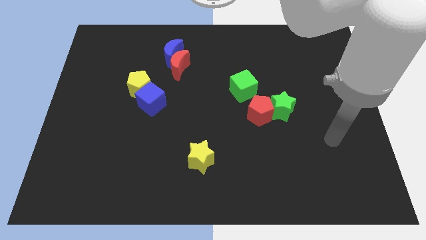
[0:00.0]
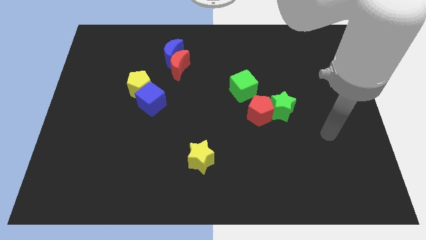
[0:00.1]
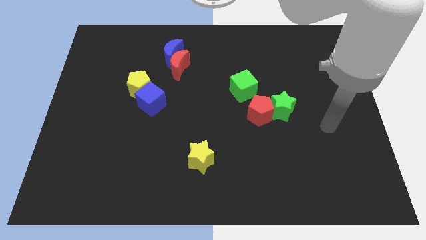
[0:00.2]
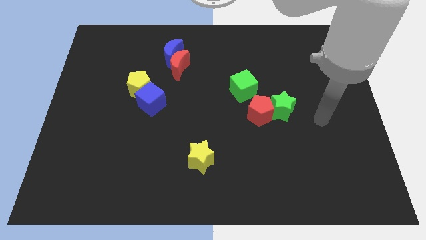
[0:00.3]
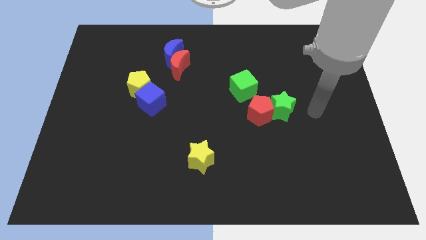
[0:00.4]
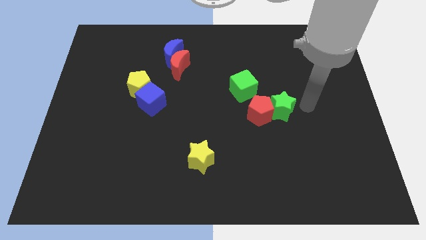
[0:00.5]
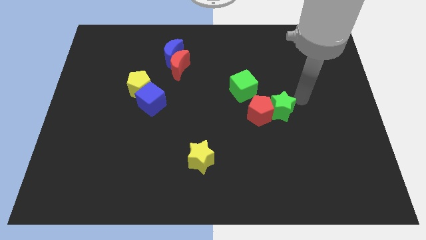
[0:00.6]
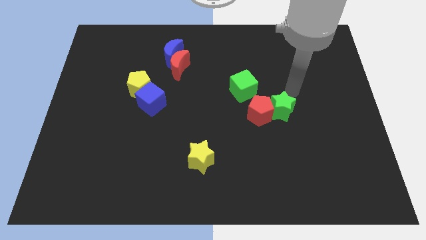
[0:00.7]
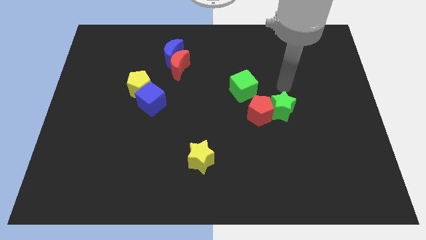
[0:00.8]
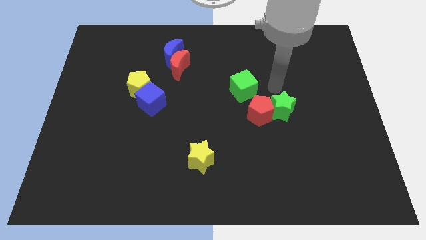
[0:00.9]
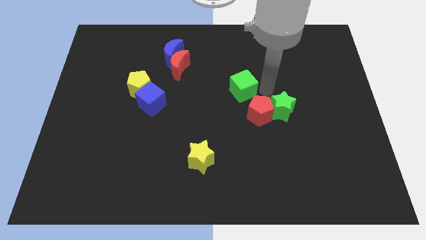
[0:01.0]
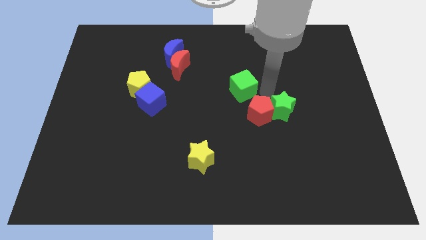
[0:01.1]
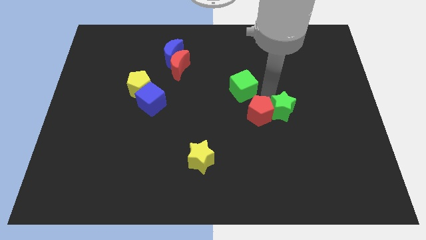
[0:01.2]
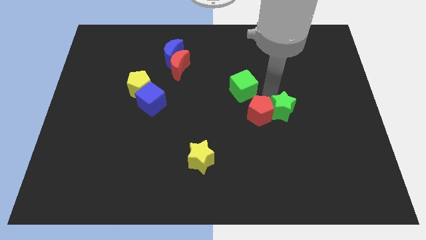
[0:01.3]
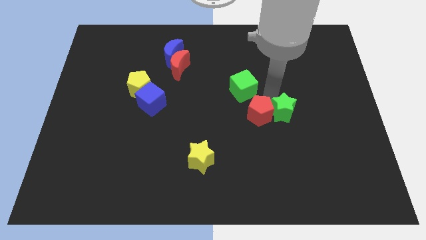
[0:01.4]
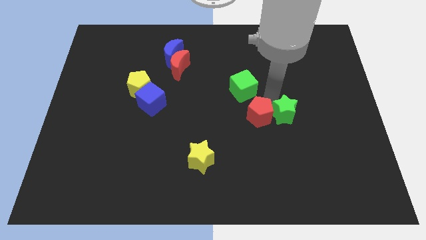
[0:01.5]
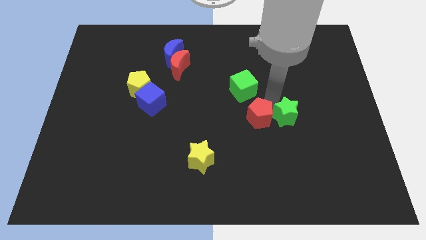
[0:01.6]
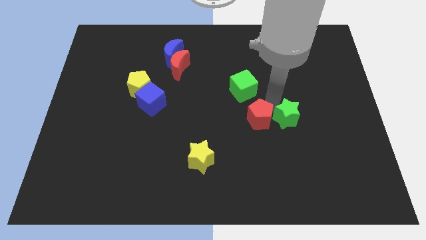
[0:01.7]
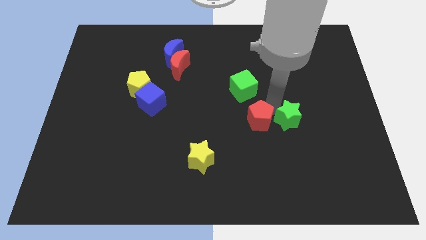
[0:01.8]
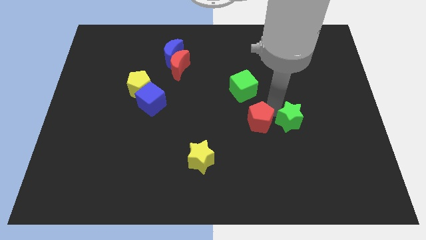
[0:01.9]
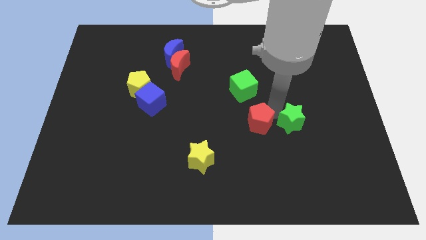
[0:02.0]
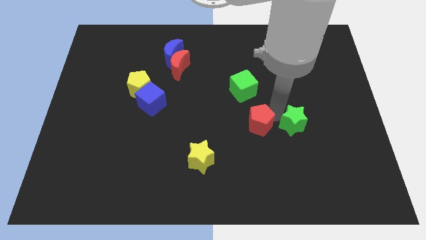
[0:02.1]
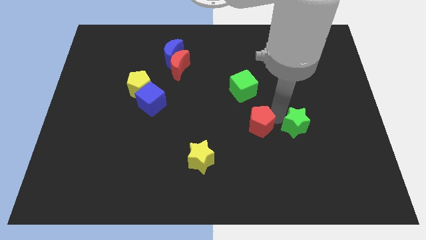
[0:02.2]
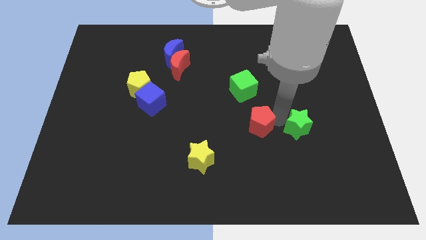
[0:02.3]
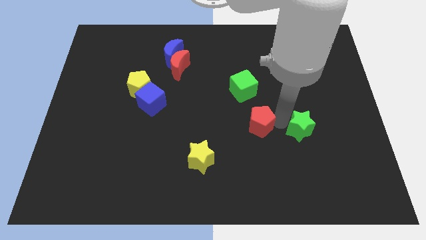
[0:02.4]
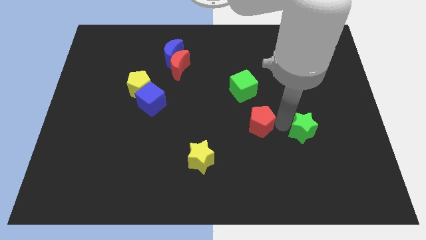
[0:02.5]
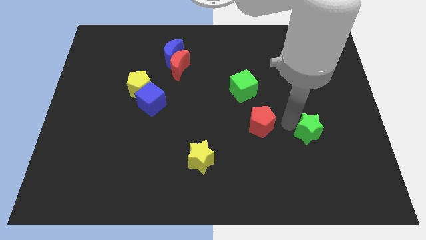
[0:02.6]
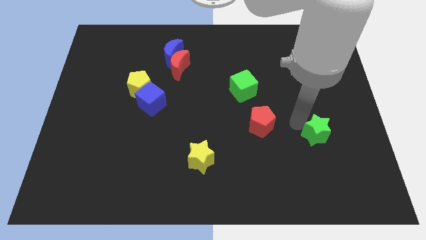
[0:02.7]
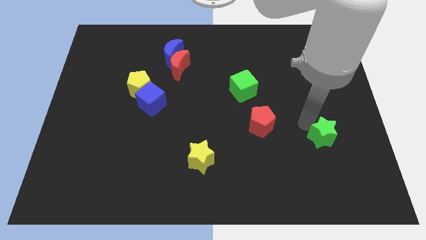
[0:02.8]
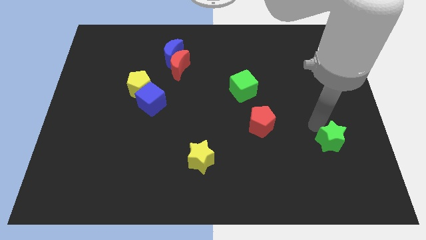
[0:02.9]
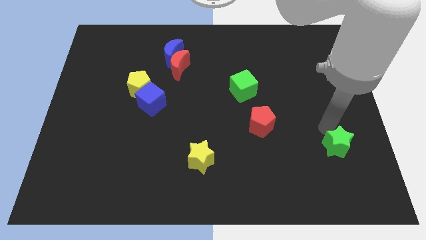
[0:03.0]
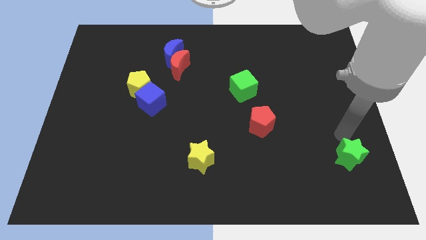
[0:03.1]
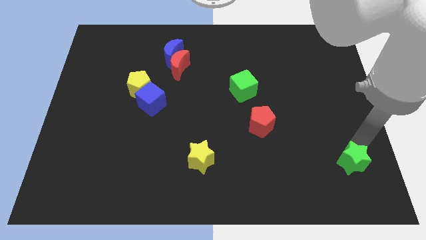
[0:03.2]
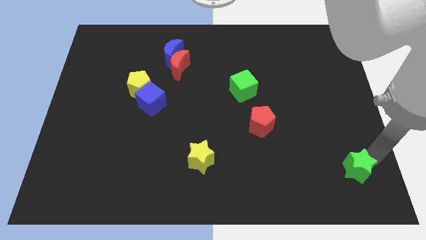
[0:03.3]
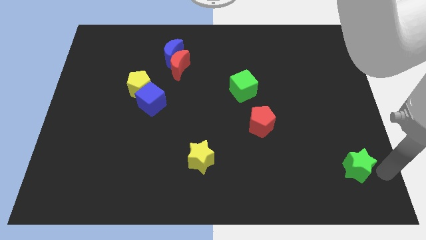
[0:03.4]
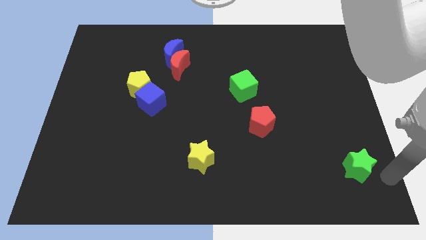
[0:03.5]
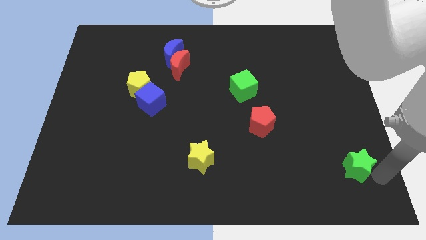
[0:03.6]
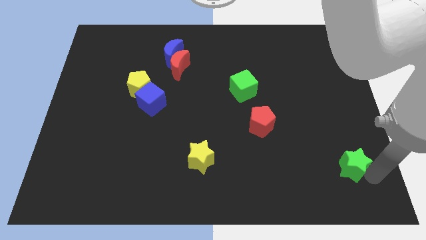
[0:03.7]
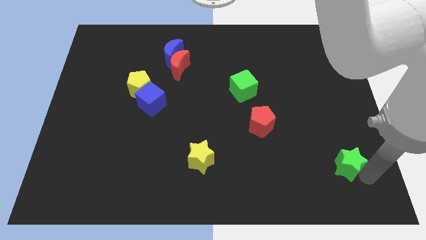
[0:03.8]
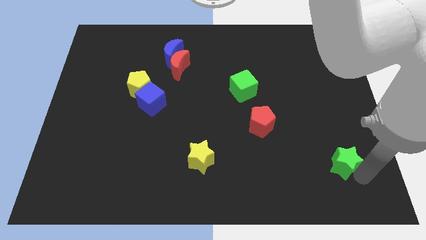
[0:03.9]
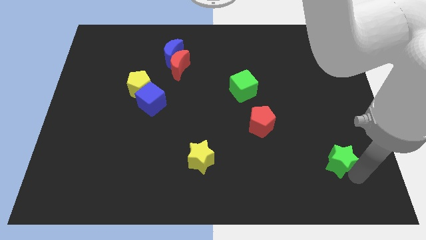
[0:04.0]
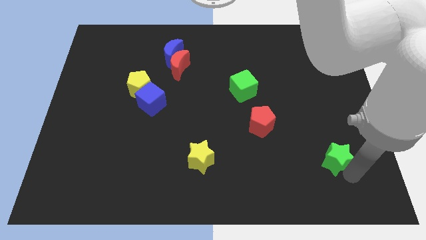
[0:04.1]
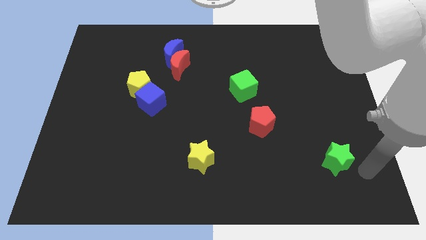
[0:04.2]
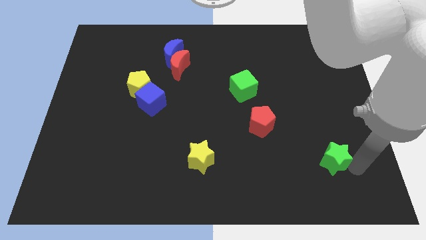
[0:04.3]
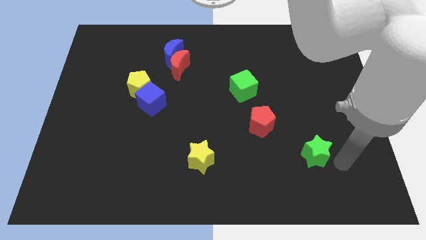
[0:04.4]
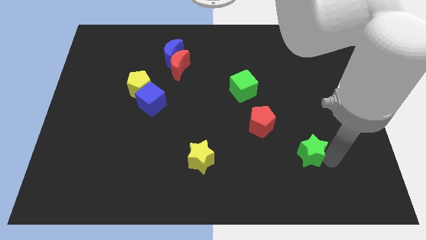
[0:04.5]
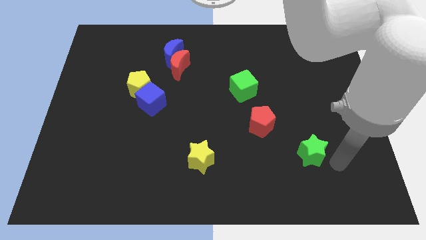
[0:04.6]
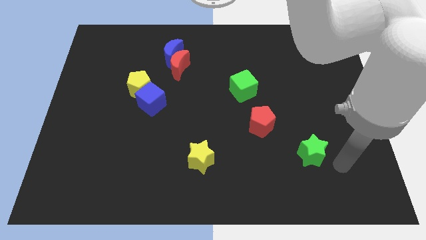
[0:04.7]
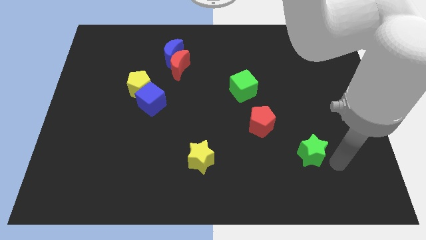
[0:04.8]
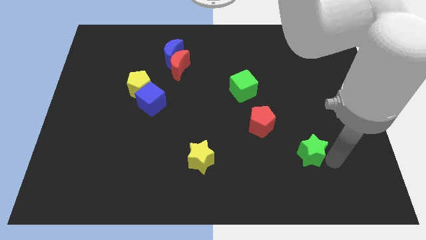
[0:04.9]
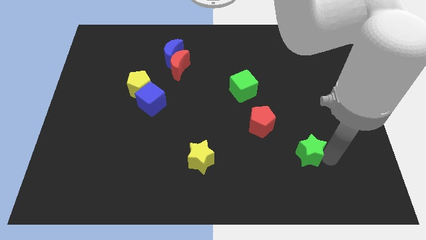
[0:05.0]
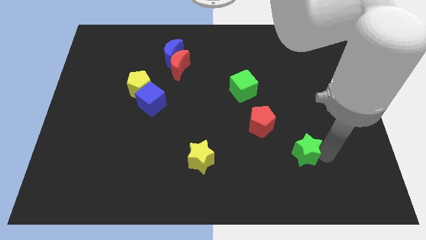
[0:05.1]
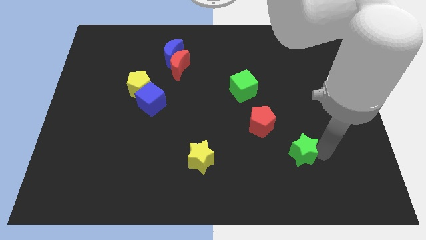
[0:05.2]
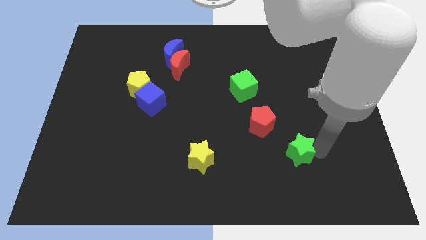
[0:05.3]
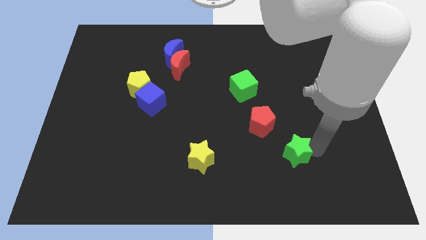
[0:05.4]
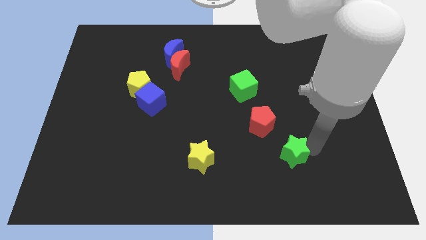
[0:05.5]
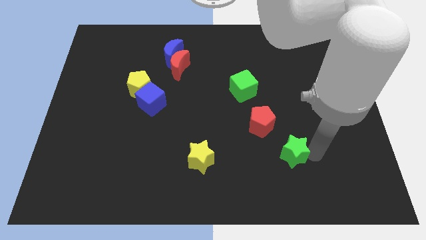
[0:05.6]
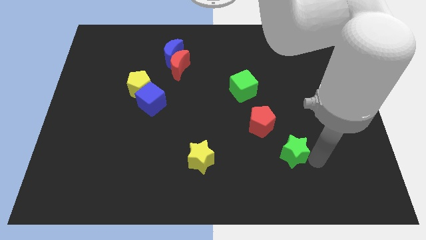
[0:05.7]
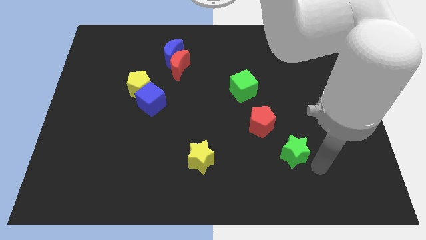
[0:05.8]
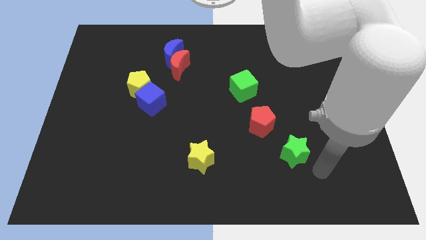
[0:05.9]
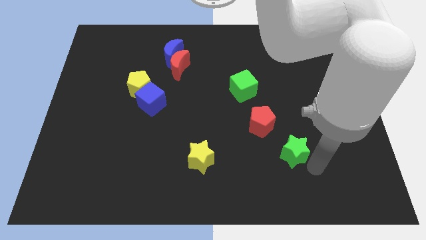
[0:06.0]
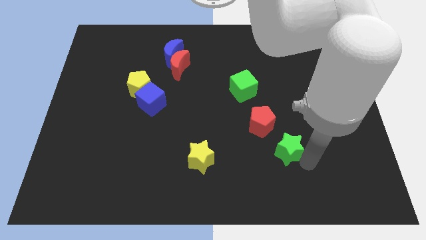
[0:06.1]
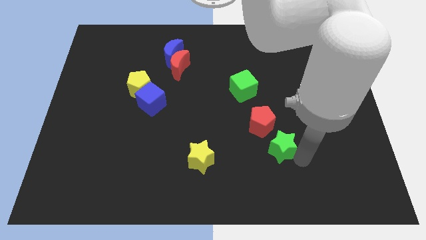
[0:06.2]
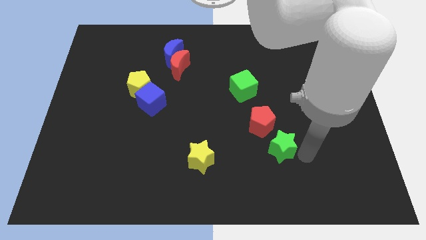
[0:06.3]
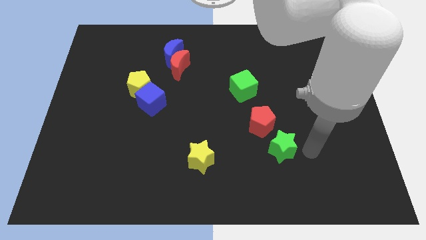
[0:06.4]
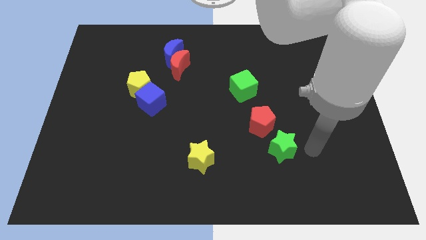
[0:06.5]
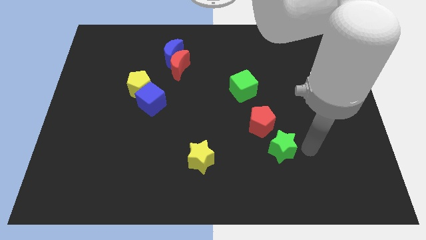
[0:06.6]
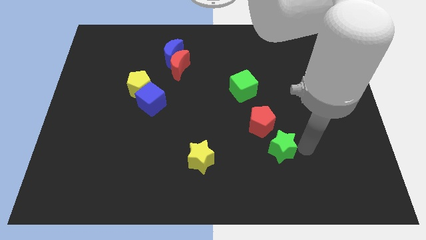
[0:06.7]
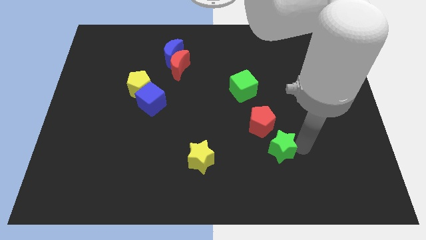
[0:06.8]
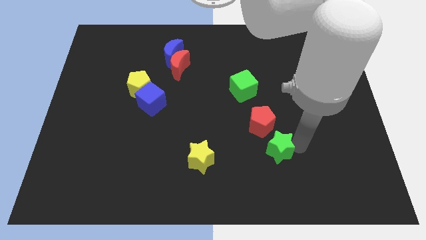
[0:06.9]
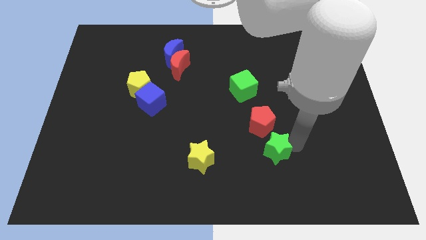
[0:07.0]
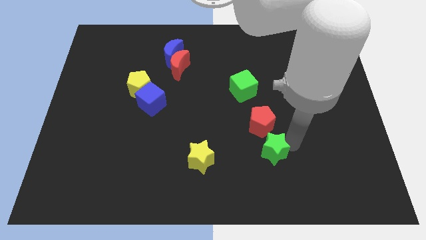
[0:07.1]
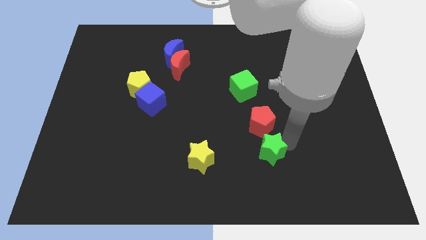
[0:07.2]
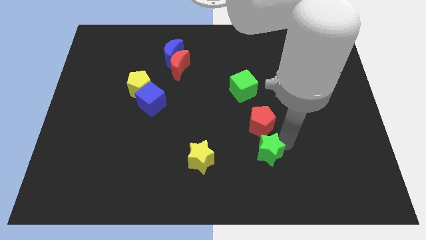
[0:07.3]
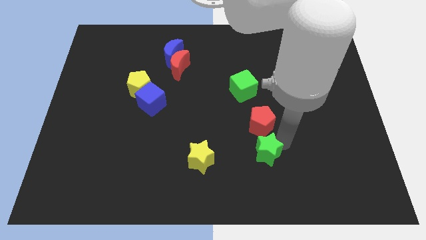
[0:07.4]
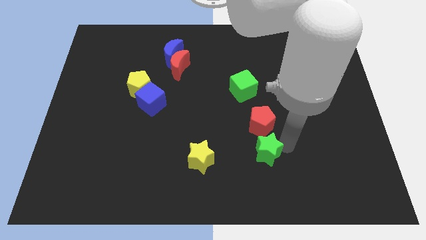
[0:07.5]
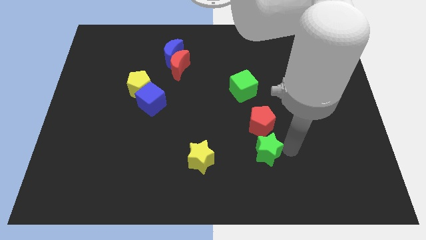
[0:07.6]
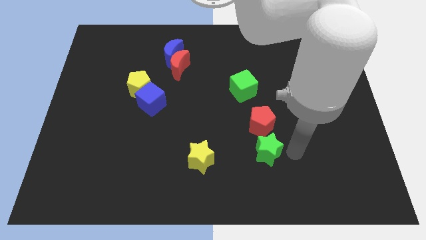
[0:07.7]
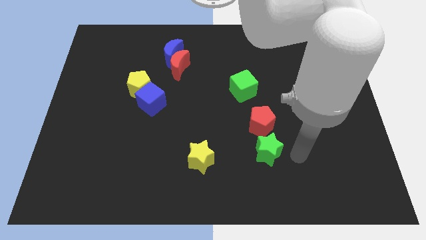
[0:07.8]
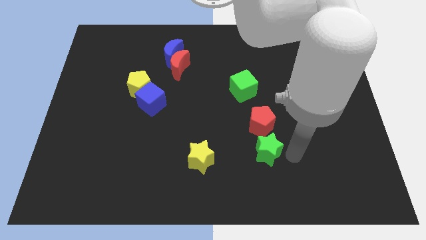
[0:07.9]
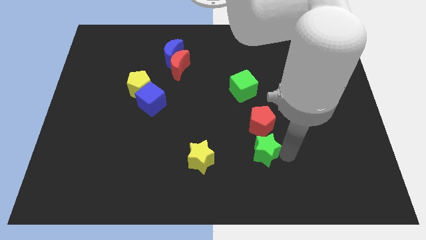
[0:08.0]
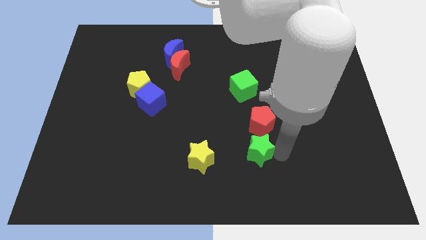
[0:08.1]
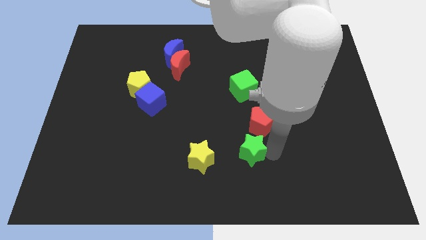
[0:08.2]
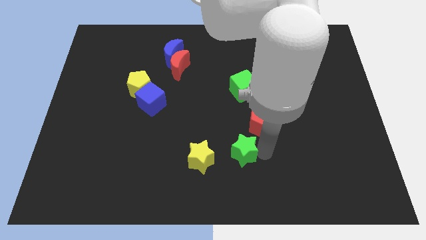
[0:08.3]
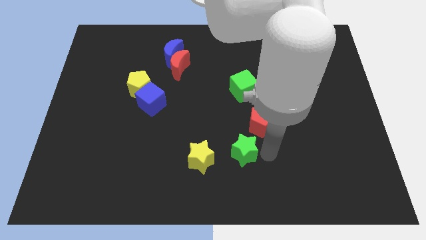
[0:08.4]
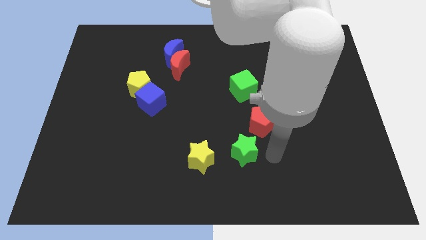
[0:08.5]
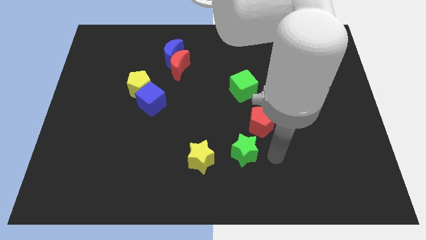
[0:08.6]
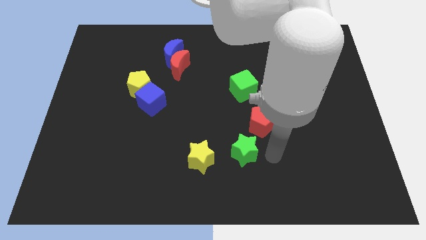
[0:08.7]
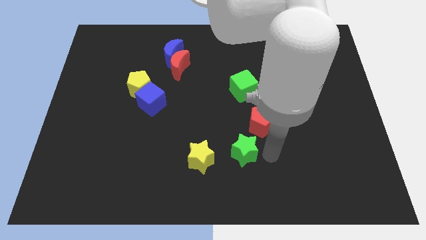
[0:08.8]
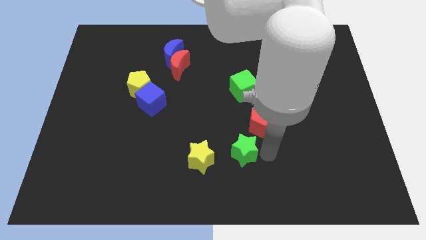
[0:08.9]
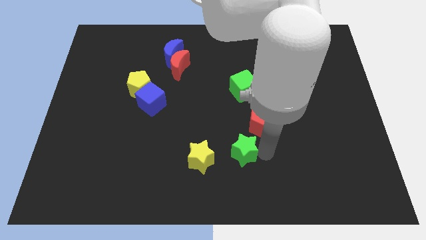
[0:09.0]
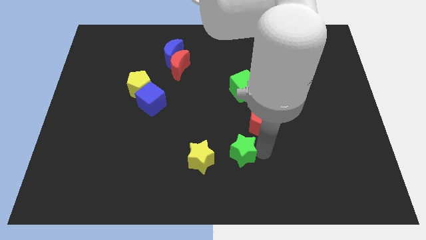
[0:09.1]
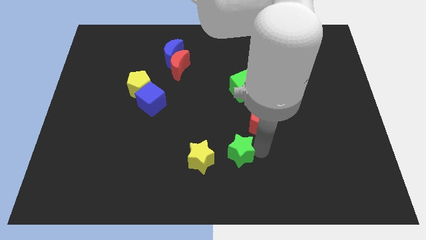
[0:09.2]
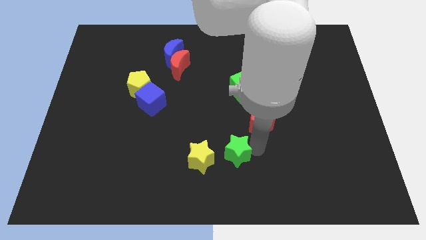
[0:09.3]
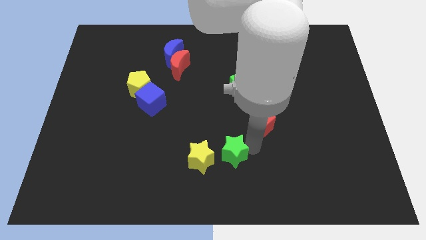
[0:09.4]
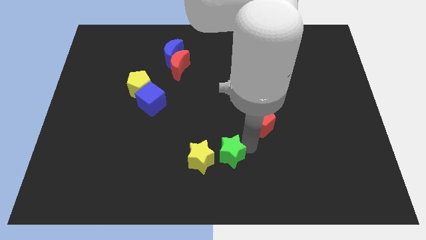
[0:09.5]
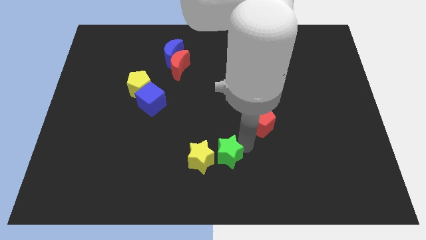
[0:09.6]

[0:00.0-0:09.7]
slide the green star to the yellow star
